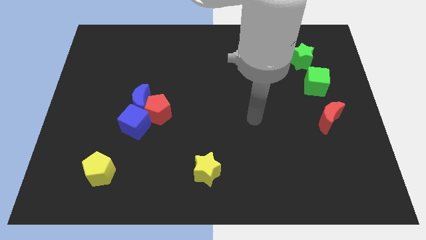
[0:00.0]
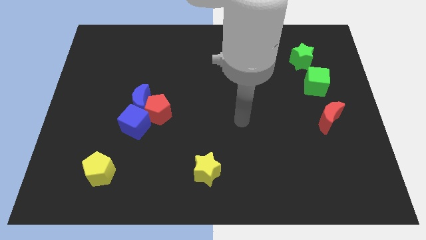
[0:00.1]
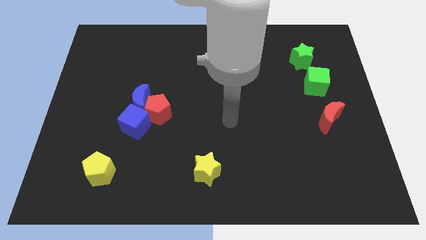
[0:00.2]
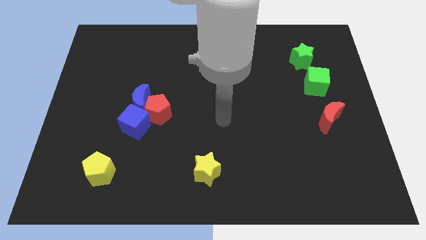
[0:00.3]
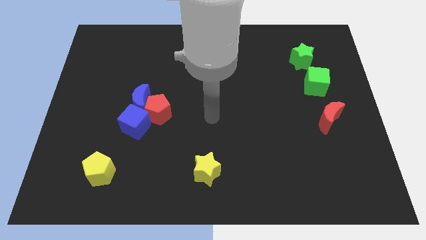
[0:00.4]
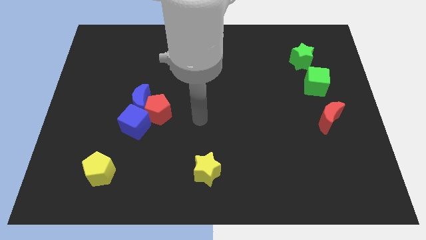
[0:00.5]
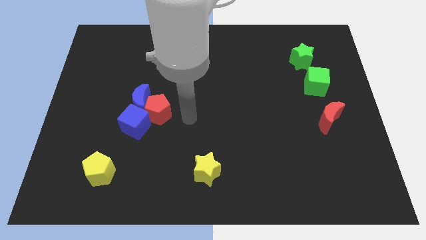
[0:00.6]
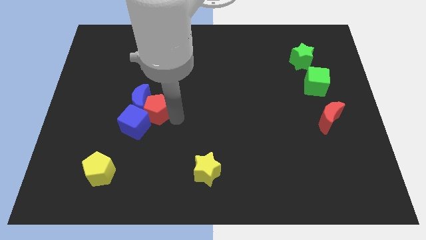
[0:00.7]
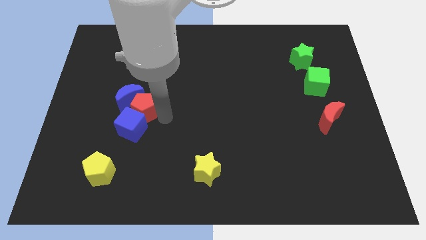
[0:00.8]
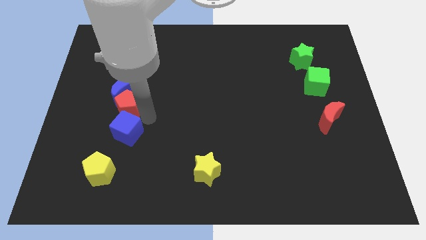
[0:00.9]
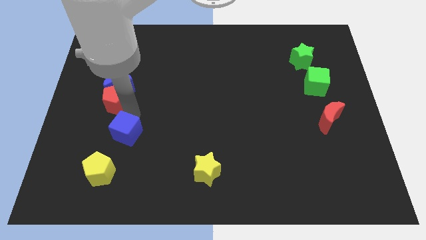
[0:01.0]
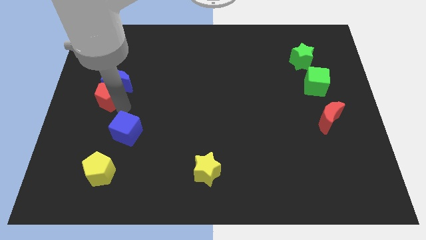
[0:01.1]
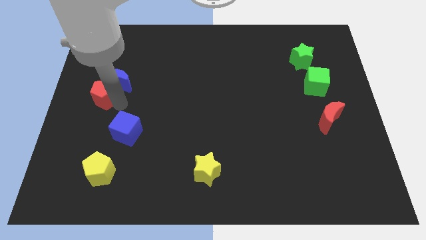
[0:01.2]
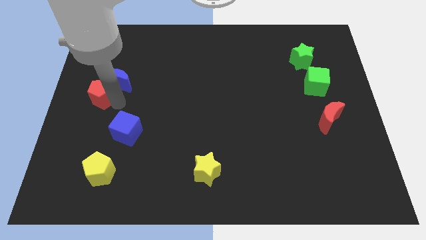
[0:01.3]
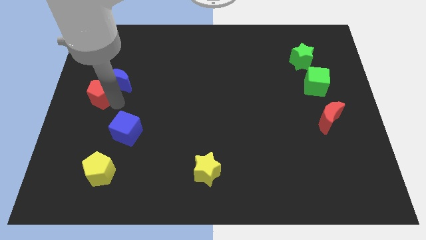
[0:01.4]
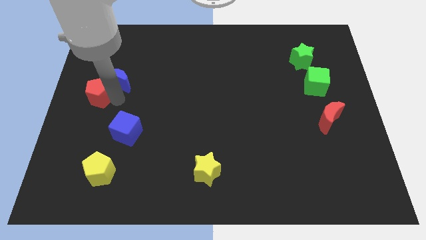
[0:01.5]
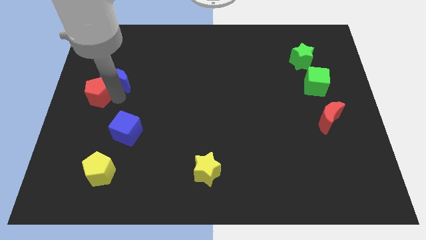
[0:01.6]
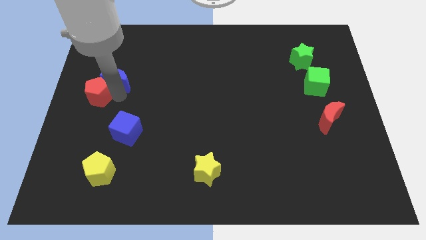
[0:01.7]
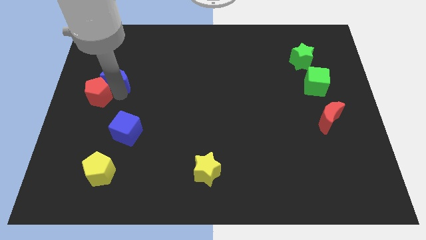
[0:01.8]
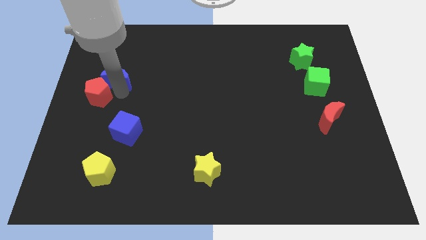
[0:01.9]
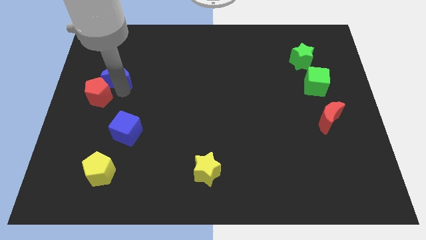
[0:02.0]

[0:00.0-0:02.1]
pull the blue moon apart from the red pentagon and blue cube

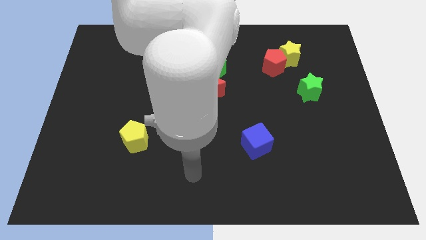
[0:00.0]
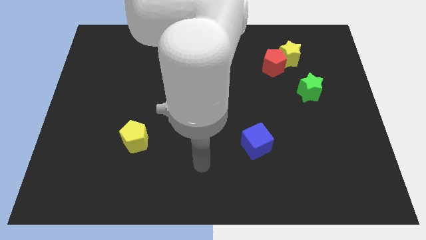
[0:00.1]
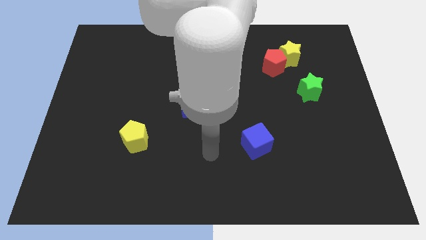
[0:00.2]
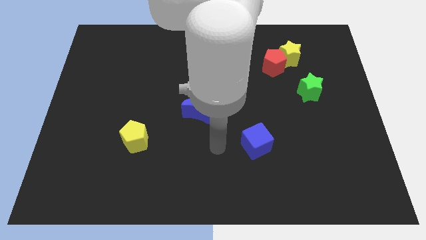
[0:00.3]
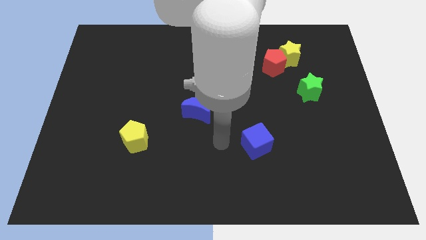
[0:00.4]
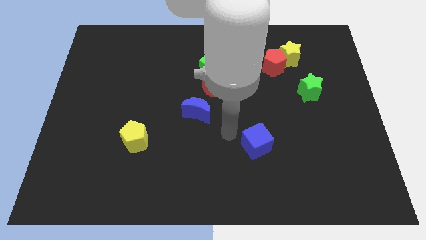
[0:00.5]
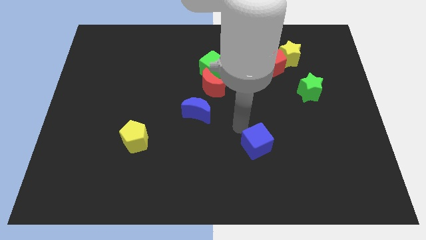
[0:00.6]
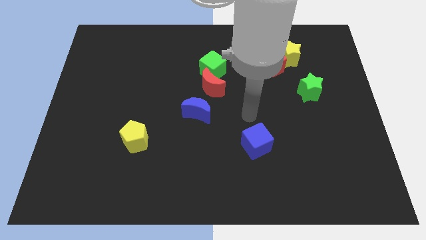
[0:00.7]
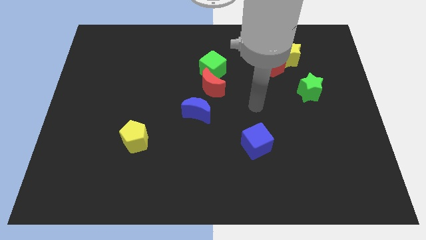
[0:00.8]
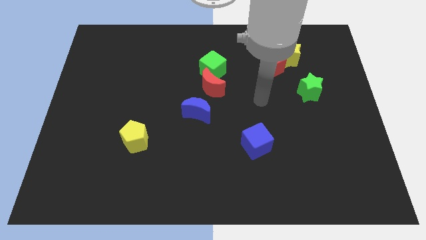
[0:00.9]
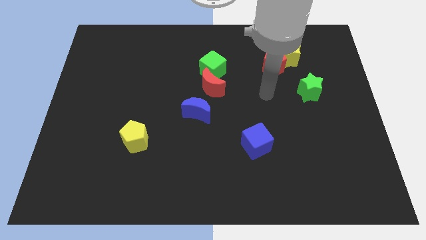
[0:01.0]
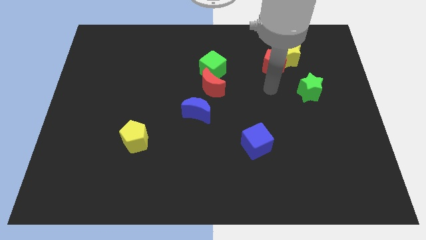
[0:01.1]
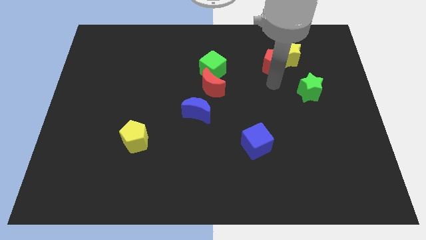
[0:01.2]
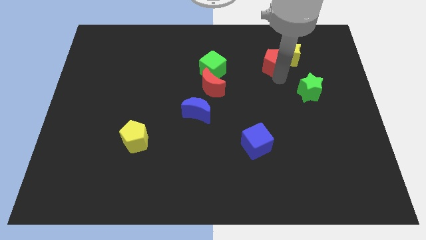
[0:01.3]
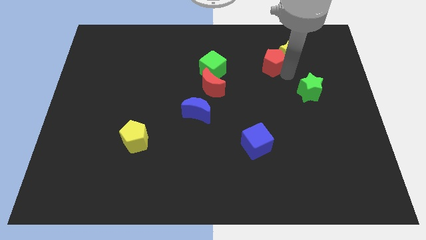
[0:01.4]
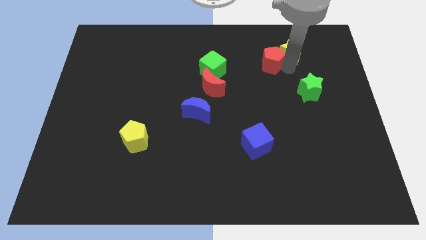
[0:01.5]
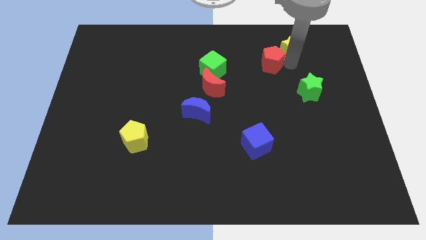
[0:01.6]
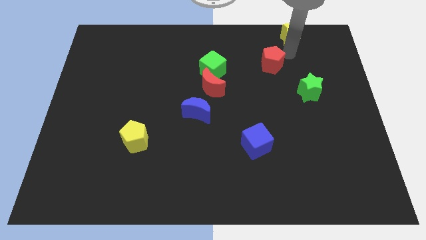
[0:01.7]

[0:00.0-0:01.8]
pull the red pentagon apart from the yellow star

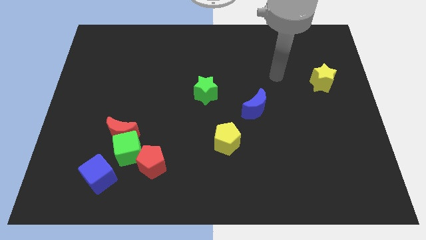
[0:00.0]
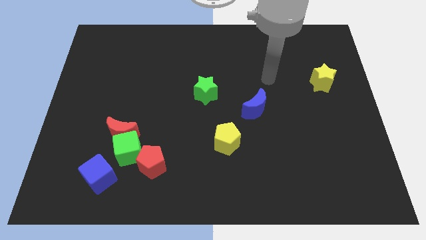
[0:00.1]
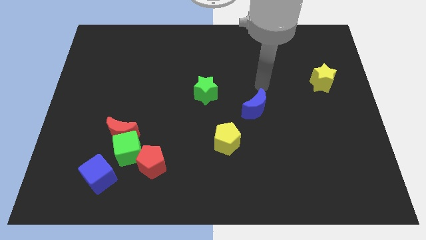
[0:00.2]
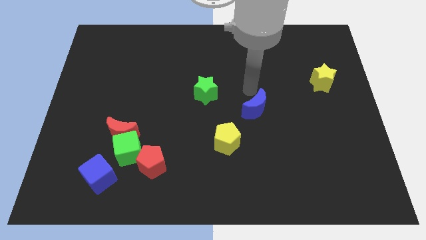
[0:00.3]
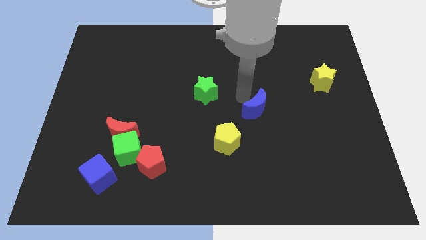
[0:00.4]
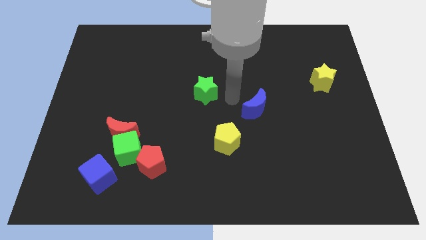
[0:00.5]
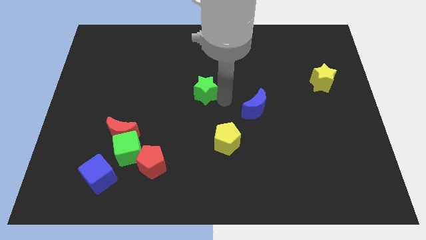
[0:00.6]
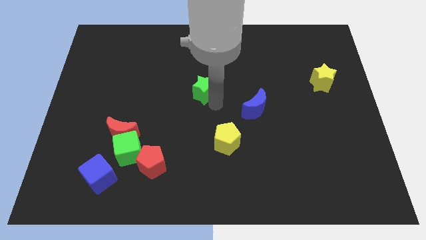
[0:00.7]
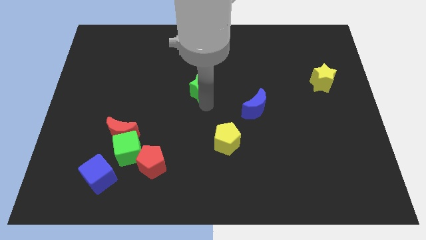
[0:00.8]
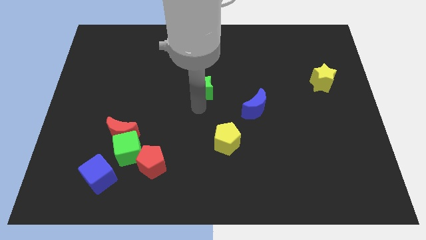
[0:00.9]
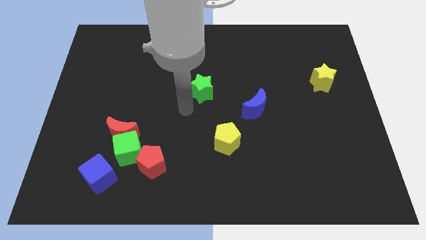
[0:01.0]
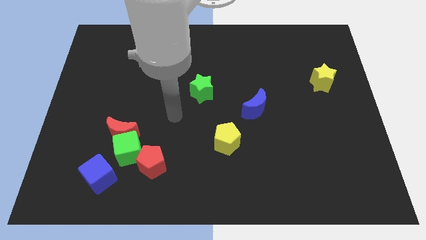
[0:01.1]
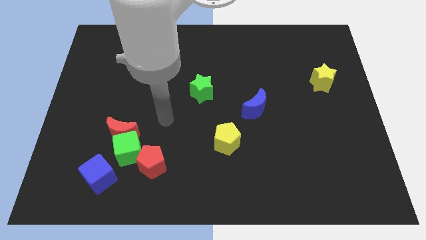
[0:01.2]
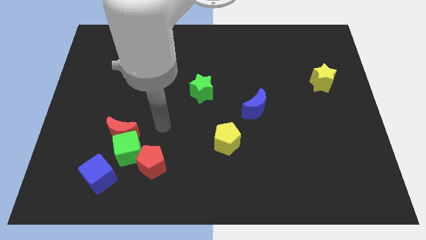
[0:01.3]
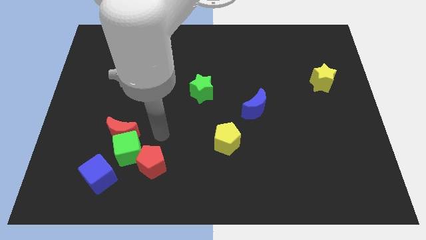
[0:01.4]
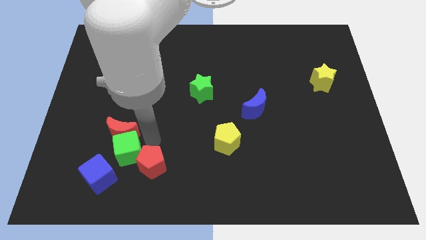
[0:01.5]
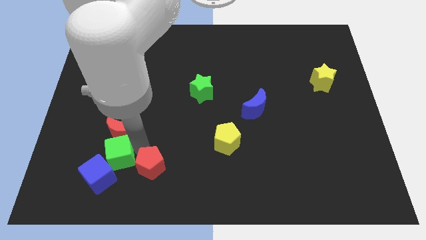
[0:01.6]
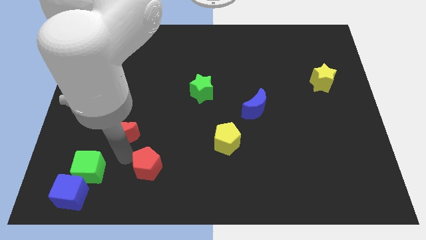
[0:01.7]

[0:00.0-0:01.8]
move the red moon away from the green cube

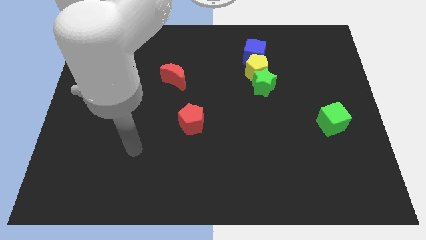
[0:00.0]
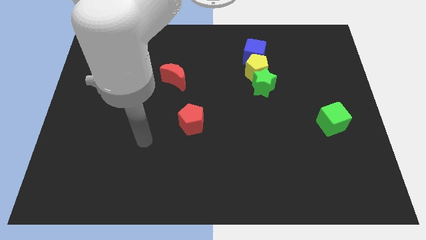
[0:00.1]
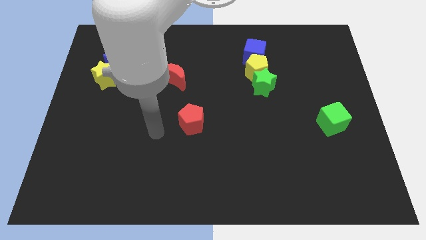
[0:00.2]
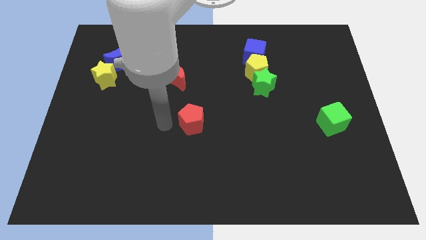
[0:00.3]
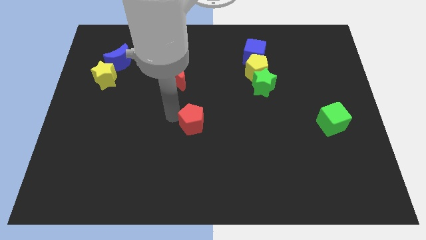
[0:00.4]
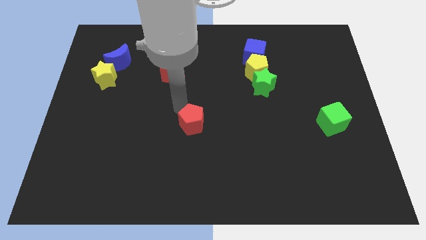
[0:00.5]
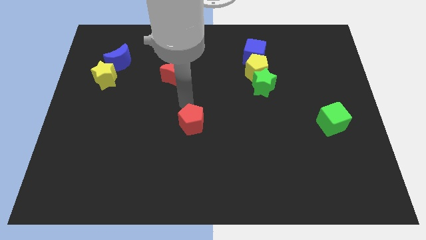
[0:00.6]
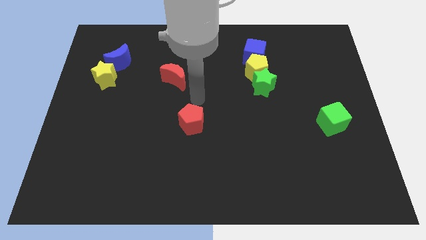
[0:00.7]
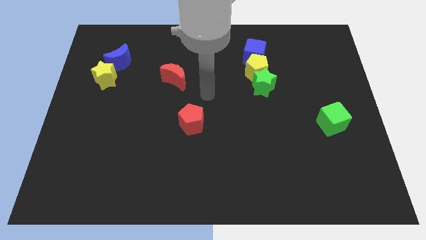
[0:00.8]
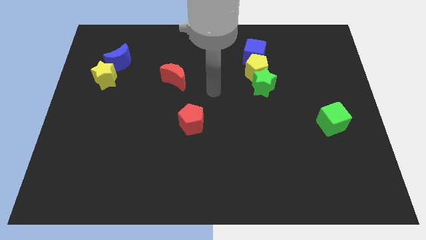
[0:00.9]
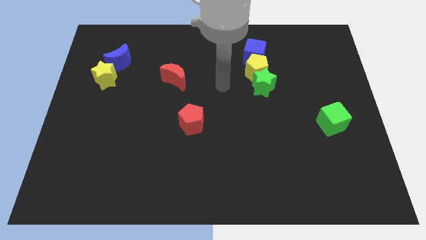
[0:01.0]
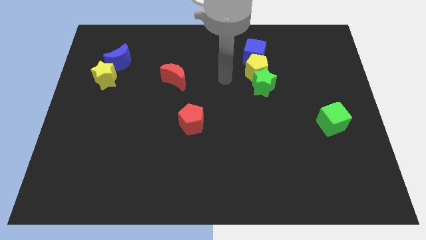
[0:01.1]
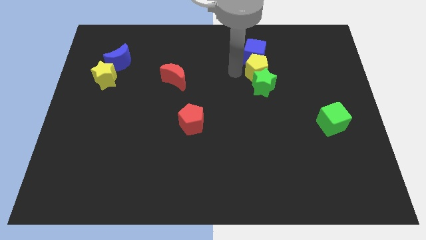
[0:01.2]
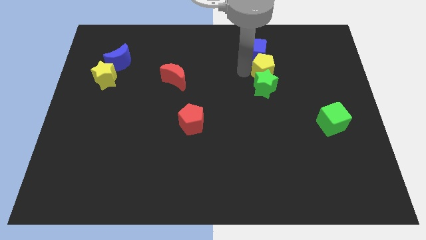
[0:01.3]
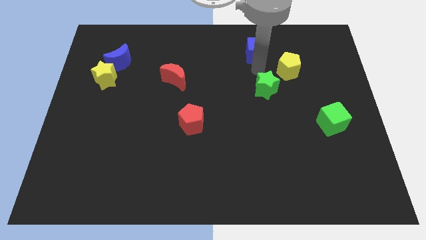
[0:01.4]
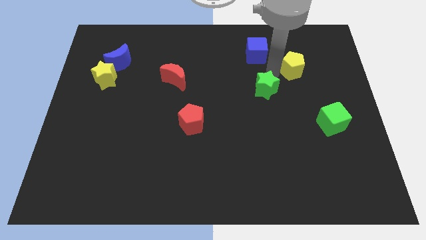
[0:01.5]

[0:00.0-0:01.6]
move the green star away from the yellow pentagon

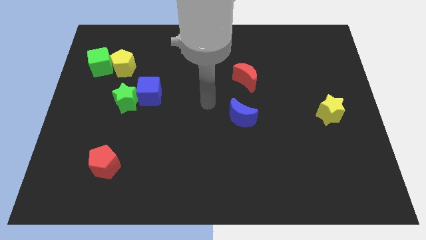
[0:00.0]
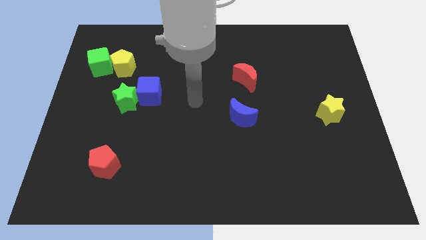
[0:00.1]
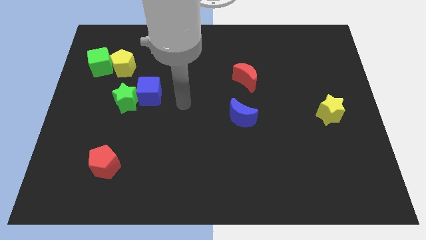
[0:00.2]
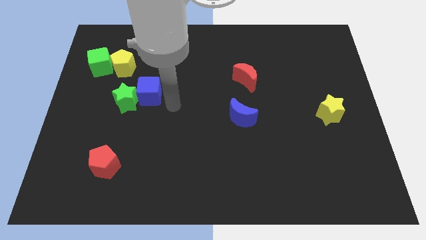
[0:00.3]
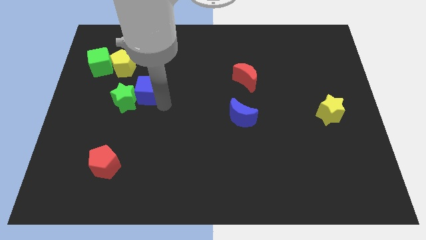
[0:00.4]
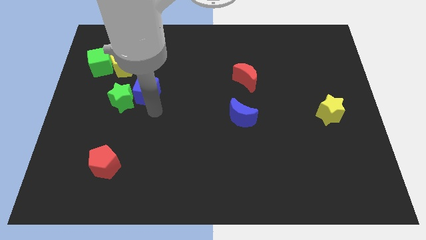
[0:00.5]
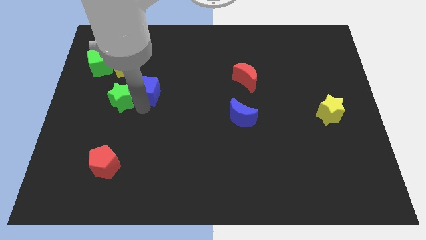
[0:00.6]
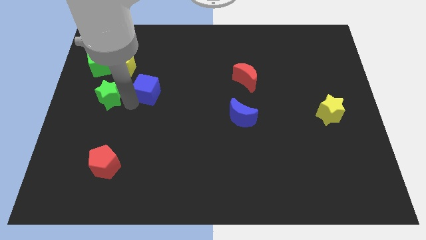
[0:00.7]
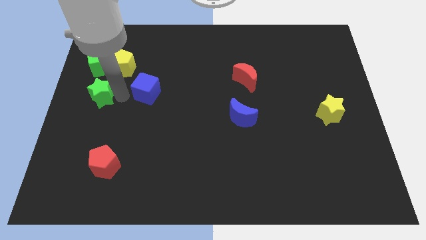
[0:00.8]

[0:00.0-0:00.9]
separate the blue cube from the green star

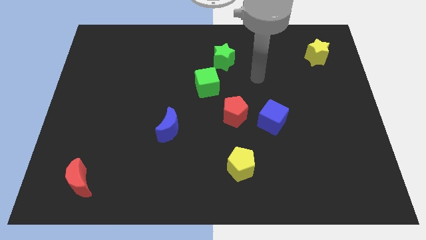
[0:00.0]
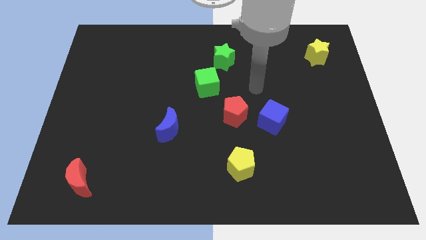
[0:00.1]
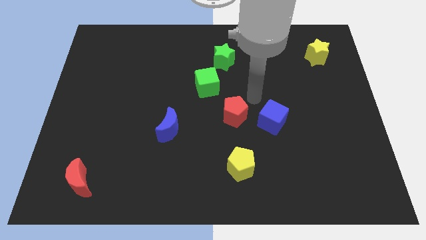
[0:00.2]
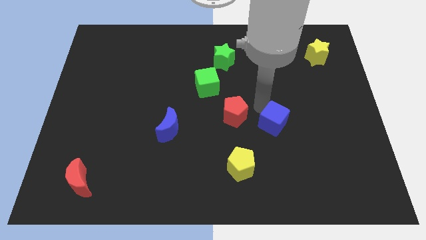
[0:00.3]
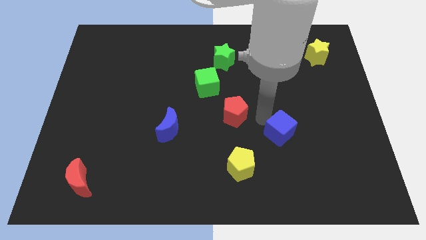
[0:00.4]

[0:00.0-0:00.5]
separate the red pentagon from the blue cube

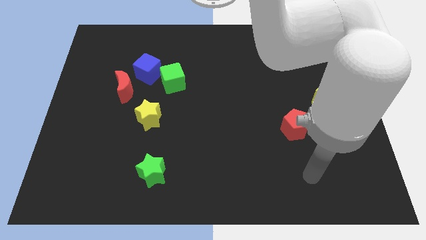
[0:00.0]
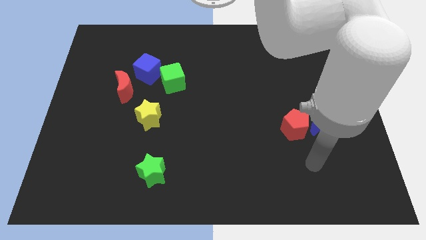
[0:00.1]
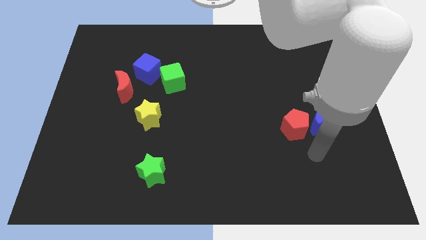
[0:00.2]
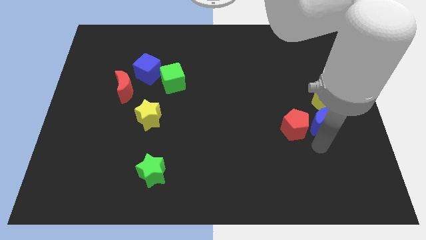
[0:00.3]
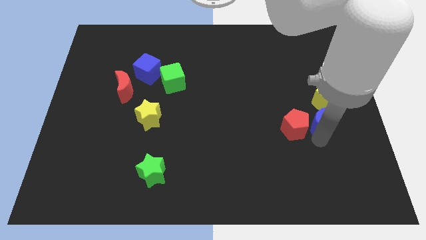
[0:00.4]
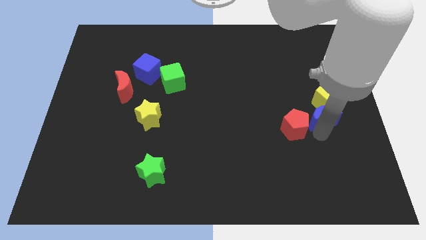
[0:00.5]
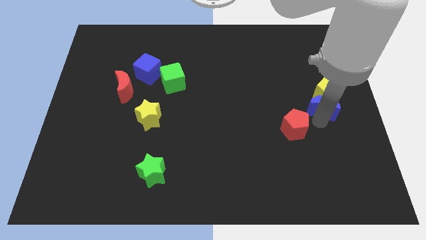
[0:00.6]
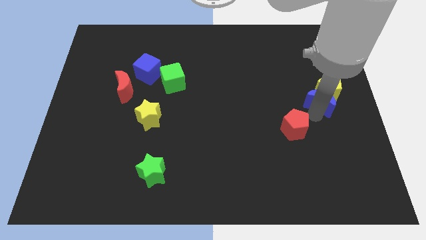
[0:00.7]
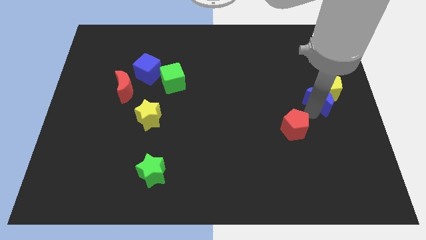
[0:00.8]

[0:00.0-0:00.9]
separate the red pentagon from the blue moon
